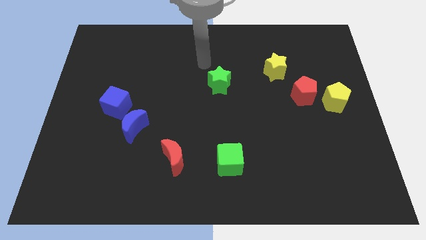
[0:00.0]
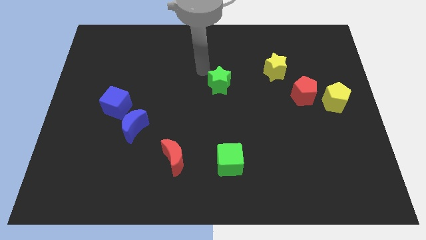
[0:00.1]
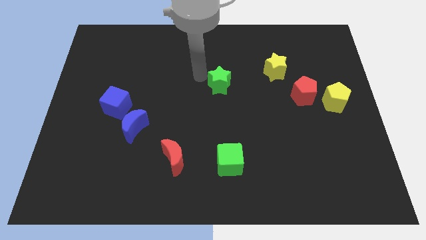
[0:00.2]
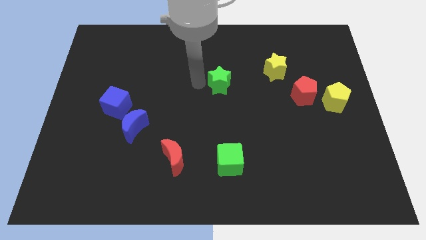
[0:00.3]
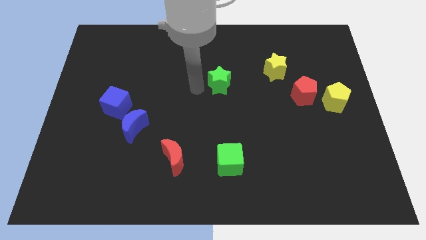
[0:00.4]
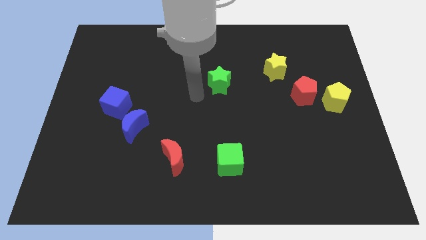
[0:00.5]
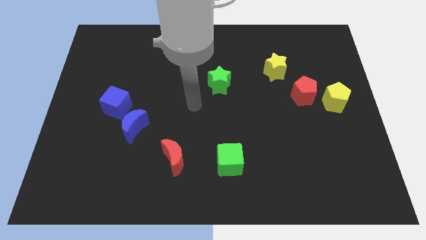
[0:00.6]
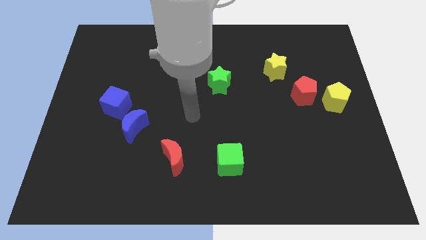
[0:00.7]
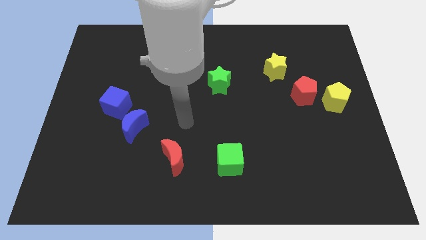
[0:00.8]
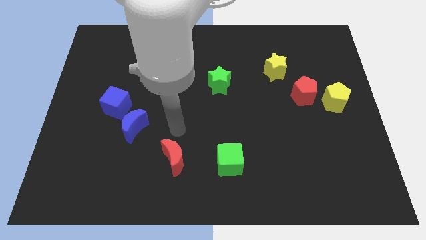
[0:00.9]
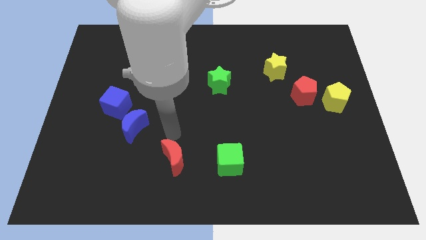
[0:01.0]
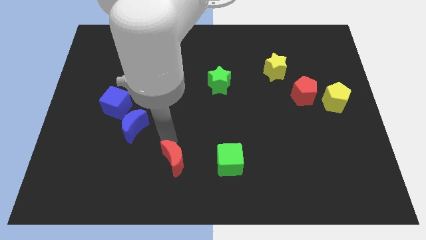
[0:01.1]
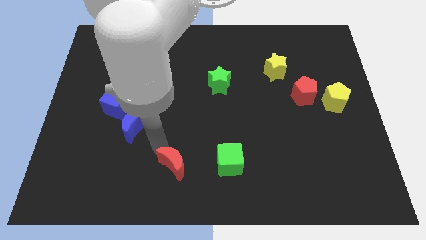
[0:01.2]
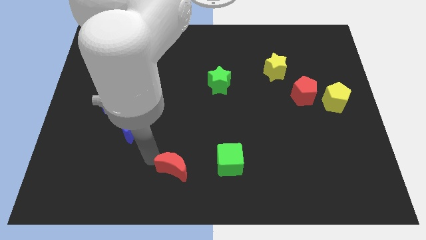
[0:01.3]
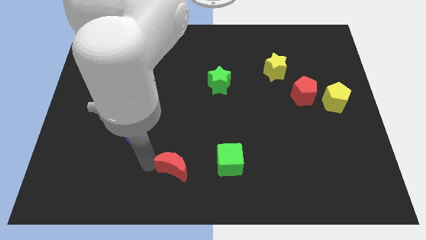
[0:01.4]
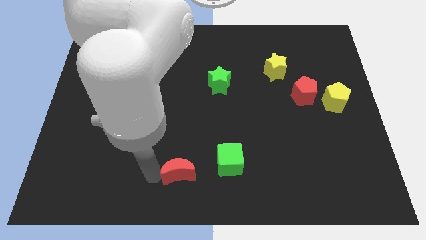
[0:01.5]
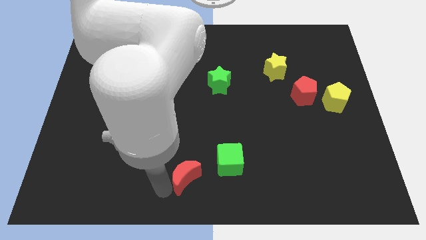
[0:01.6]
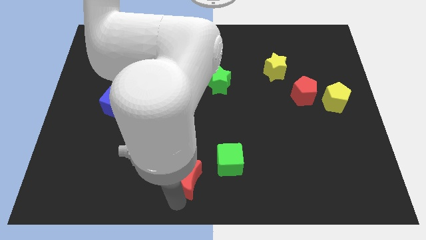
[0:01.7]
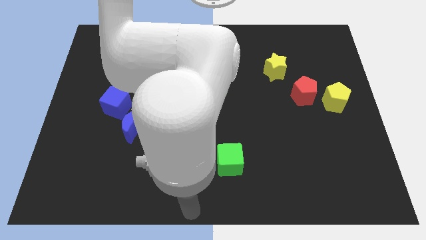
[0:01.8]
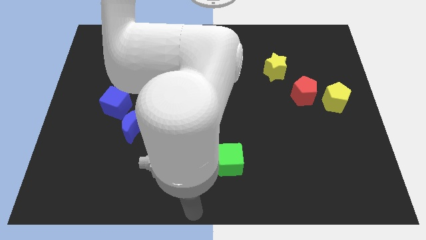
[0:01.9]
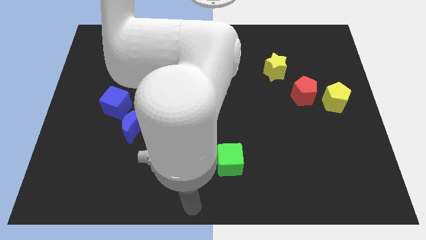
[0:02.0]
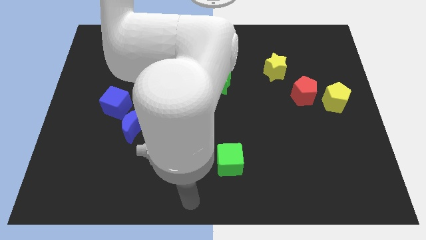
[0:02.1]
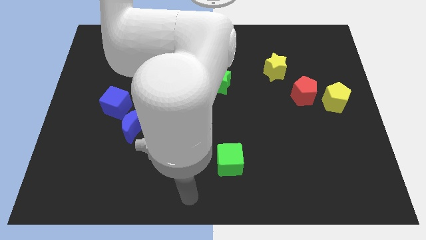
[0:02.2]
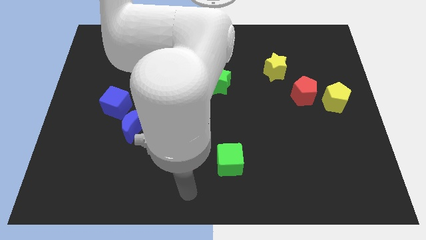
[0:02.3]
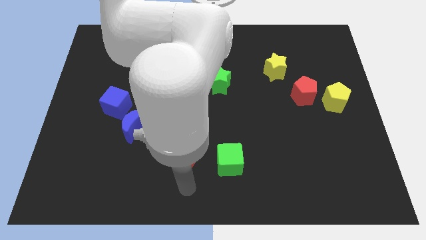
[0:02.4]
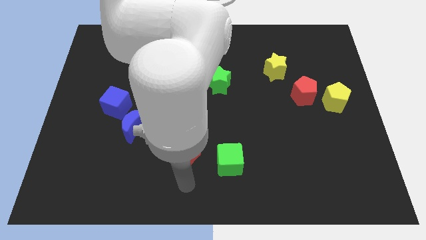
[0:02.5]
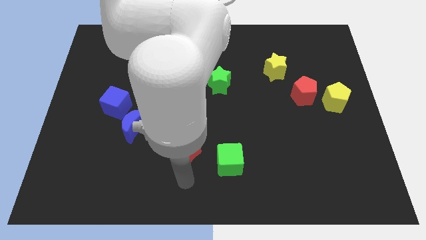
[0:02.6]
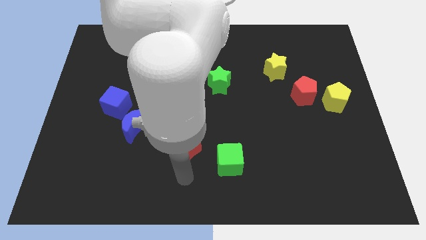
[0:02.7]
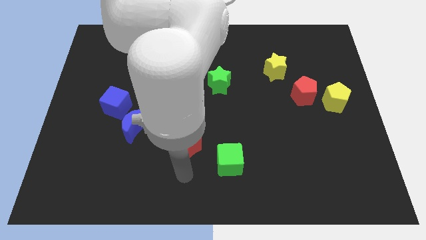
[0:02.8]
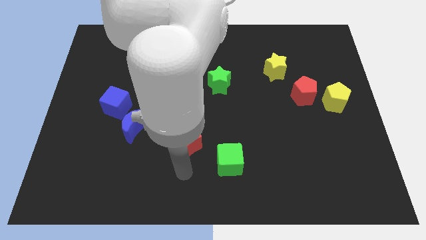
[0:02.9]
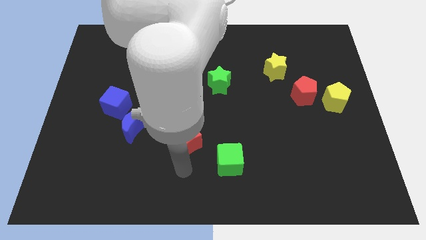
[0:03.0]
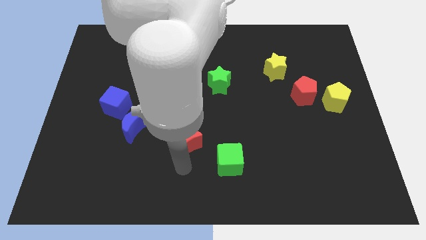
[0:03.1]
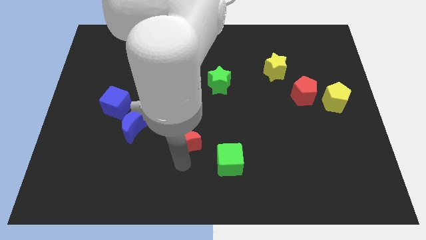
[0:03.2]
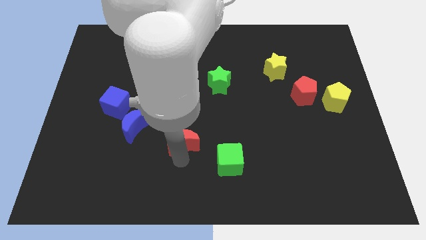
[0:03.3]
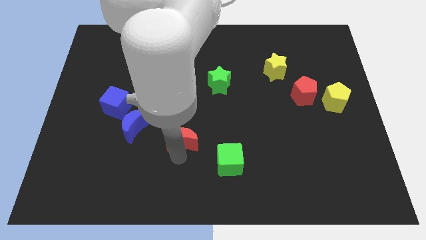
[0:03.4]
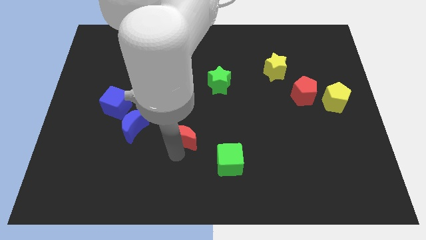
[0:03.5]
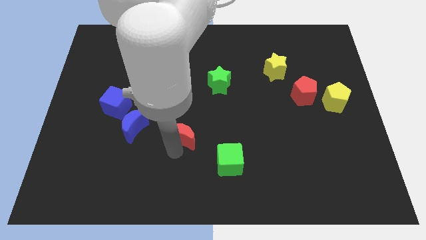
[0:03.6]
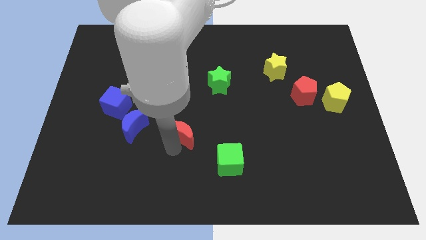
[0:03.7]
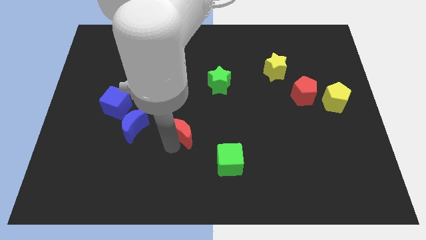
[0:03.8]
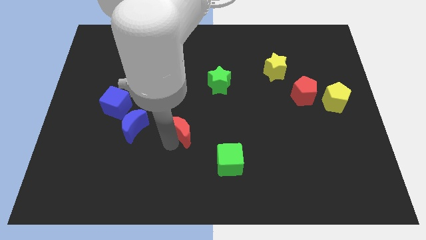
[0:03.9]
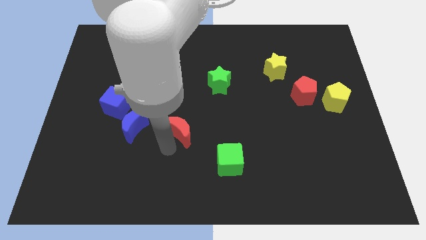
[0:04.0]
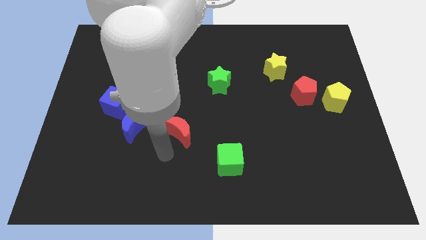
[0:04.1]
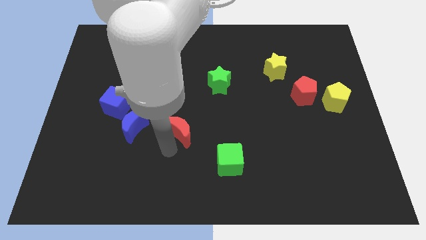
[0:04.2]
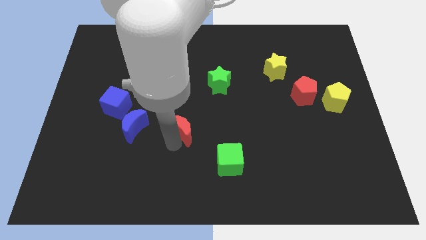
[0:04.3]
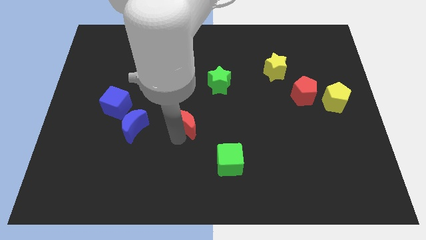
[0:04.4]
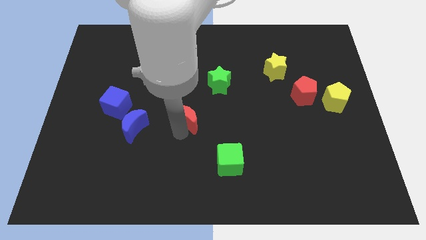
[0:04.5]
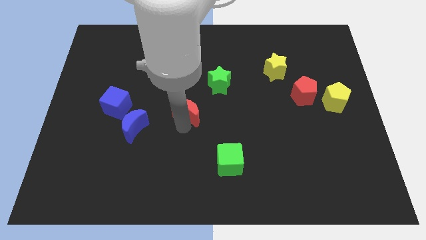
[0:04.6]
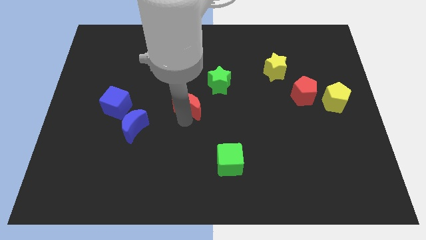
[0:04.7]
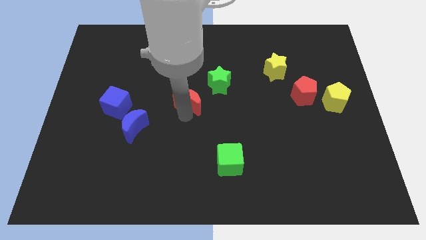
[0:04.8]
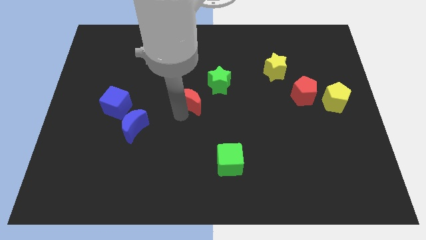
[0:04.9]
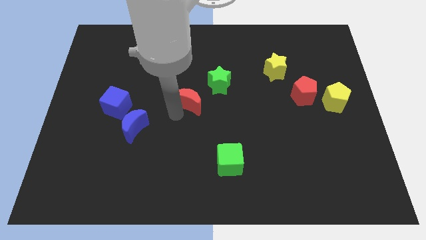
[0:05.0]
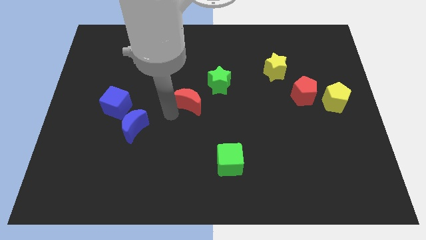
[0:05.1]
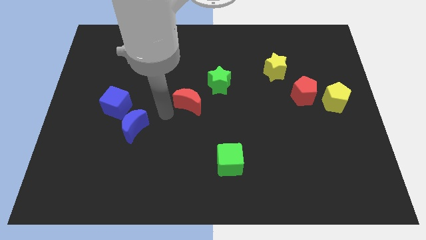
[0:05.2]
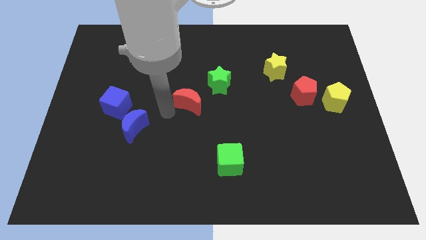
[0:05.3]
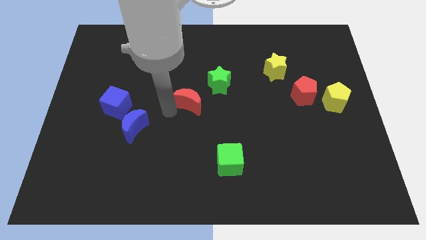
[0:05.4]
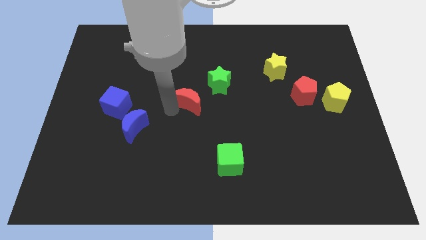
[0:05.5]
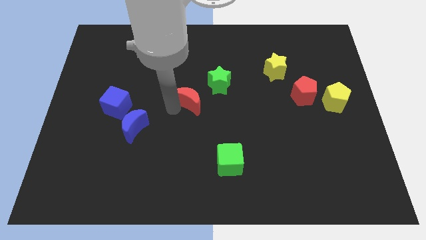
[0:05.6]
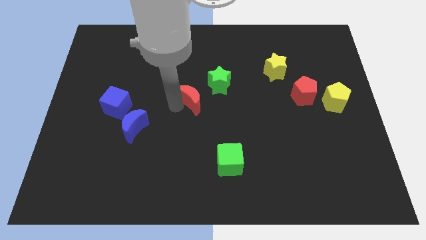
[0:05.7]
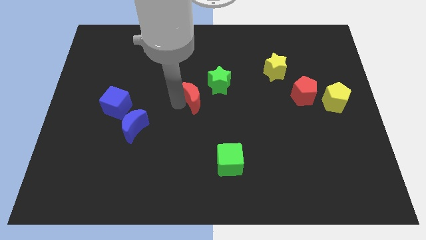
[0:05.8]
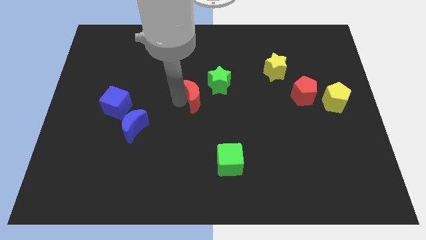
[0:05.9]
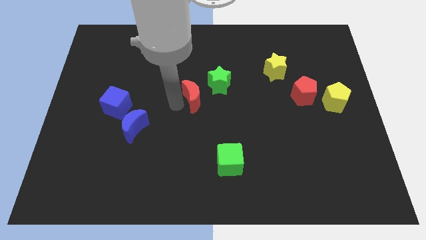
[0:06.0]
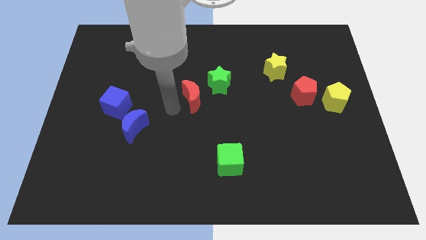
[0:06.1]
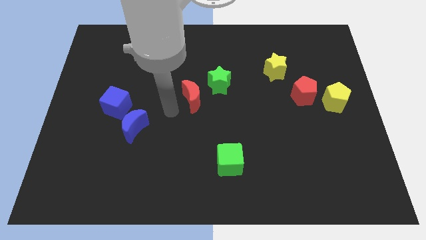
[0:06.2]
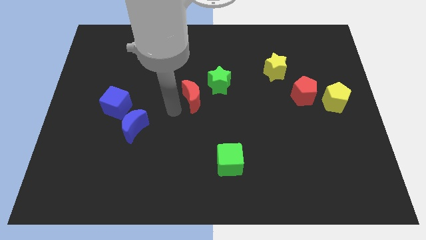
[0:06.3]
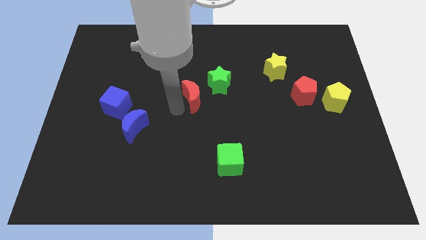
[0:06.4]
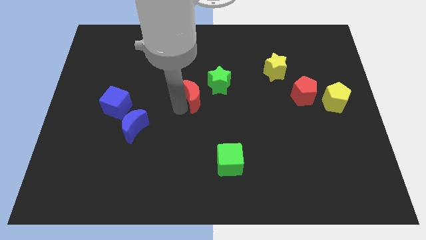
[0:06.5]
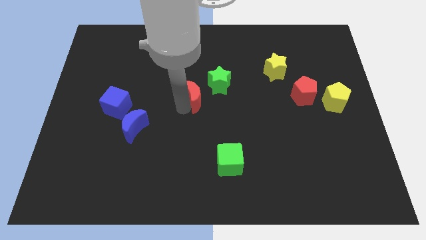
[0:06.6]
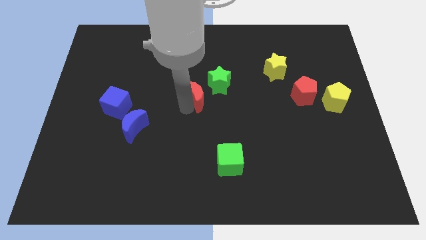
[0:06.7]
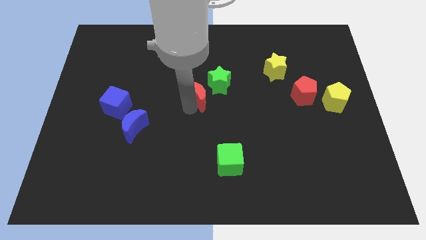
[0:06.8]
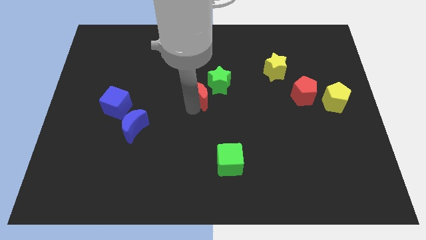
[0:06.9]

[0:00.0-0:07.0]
move the red moon next to the green star

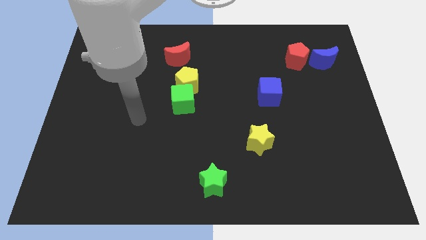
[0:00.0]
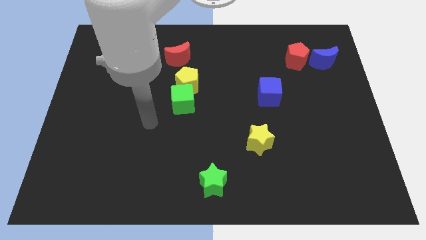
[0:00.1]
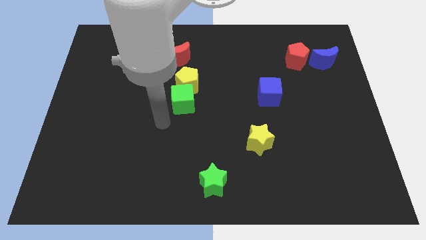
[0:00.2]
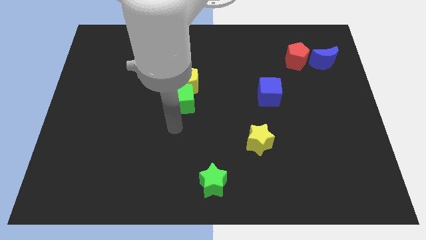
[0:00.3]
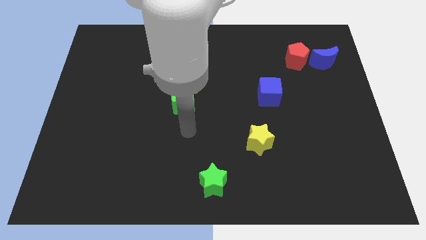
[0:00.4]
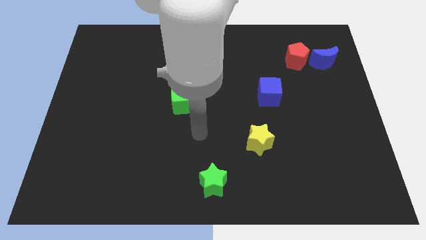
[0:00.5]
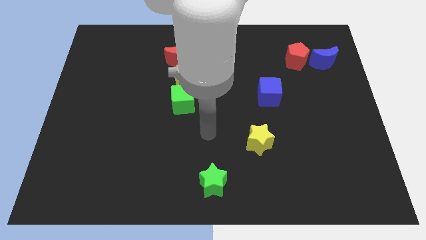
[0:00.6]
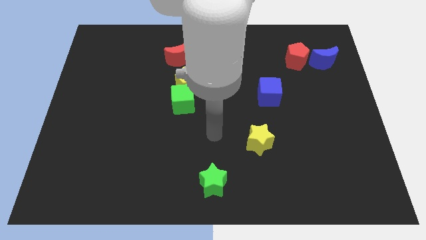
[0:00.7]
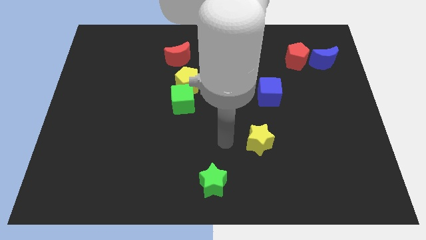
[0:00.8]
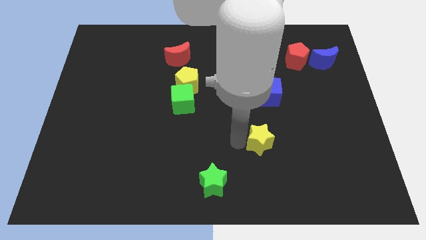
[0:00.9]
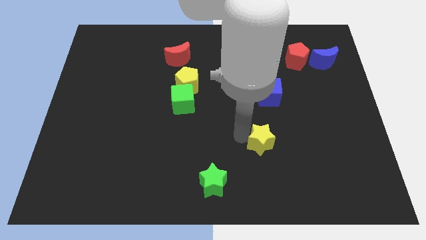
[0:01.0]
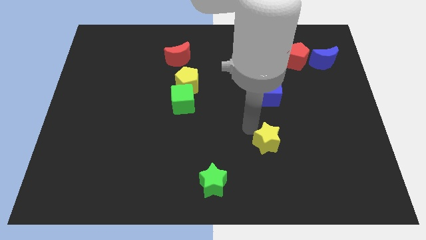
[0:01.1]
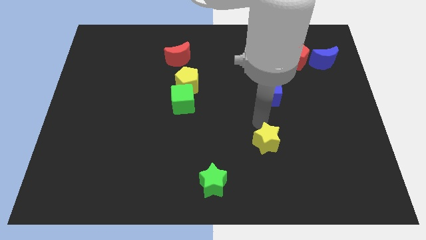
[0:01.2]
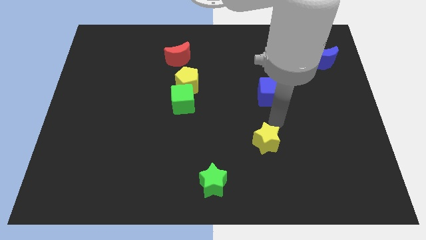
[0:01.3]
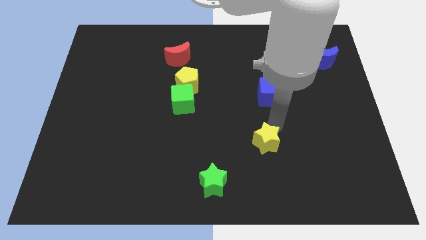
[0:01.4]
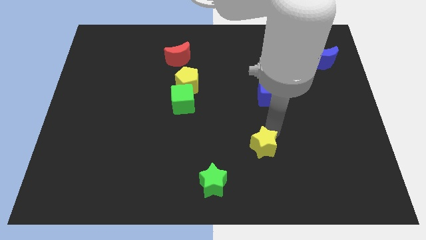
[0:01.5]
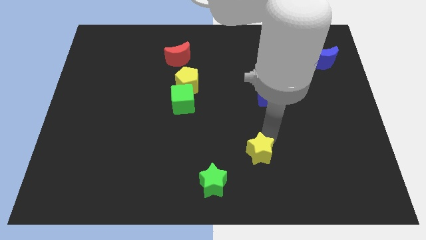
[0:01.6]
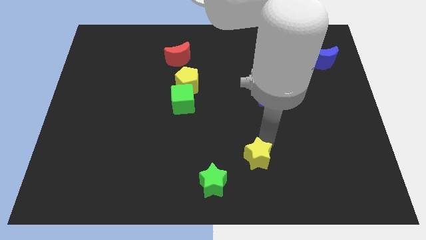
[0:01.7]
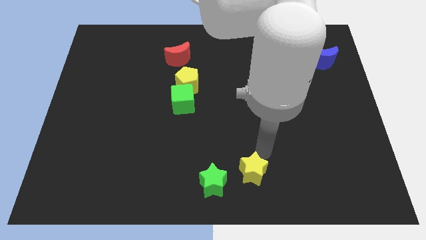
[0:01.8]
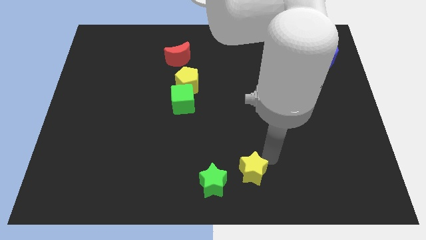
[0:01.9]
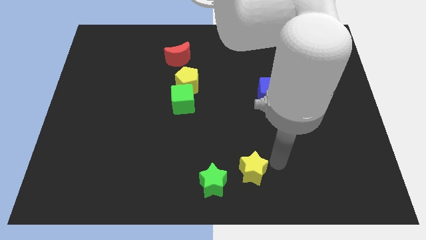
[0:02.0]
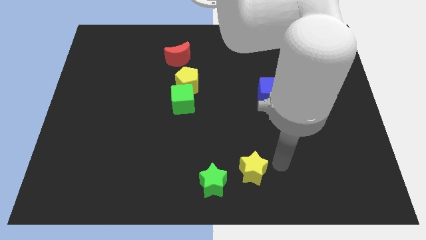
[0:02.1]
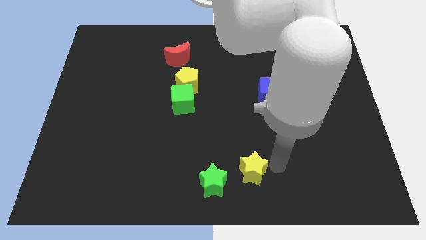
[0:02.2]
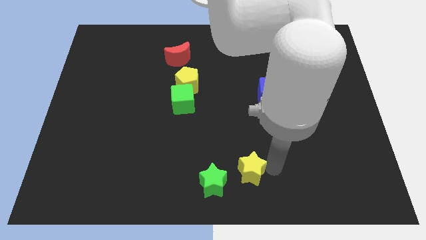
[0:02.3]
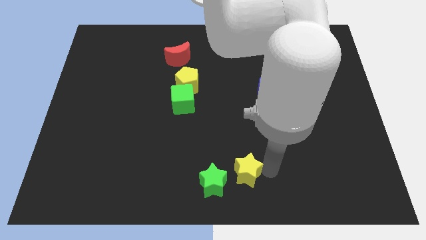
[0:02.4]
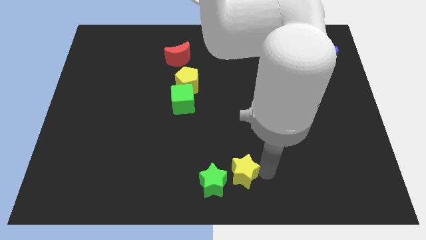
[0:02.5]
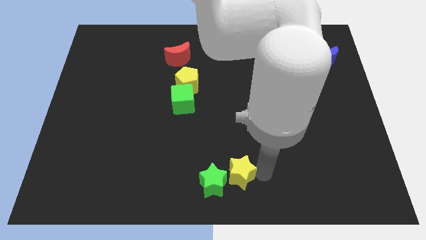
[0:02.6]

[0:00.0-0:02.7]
put the yellow star to the green star
